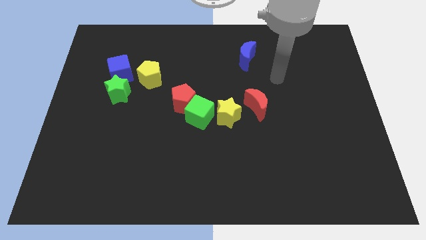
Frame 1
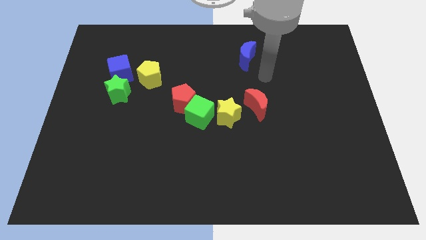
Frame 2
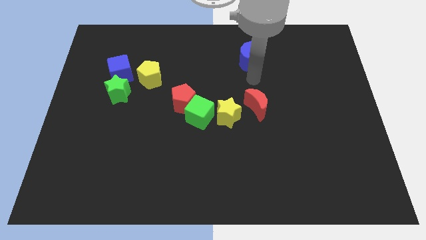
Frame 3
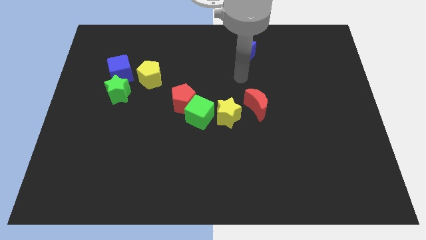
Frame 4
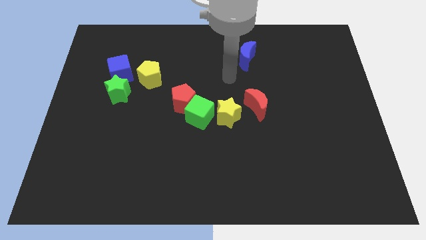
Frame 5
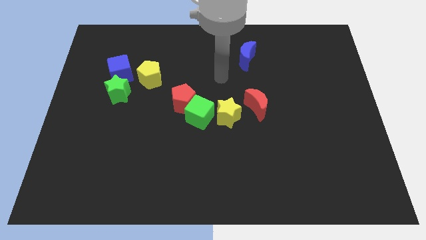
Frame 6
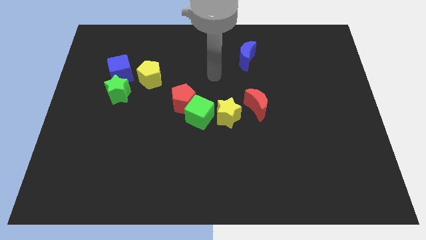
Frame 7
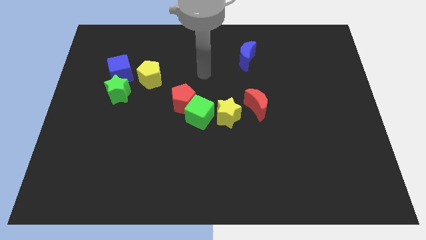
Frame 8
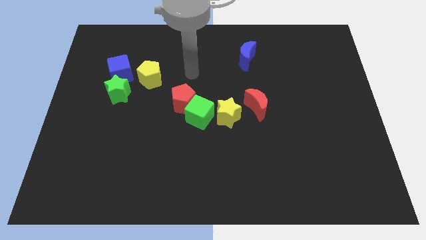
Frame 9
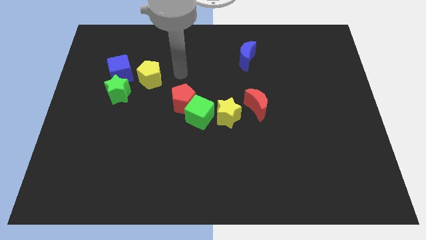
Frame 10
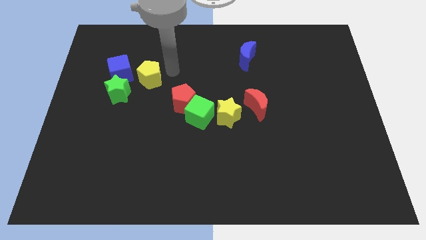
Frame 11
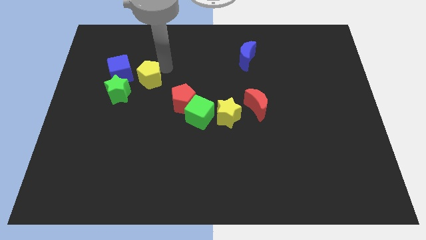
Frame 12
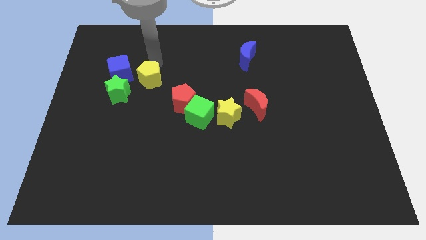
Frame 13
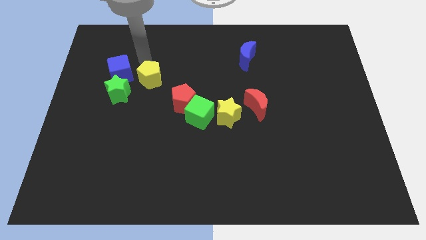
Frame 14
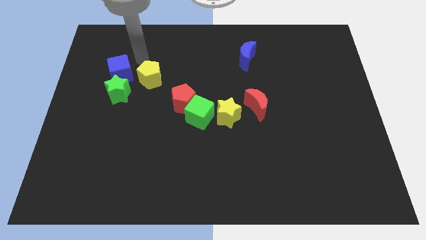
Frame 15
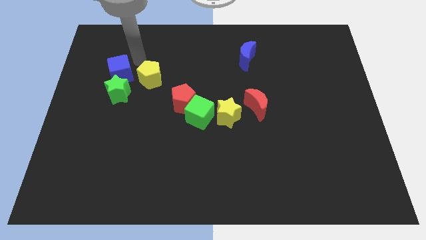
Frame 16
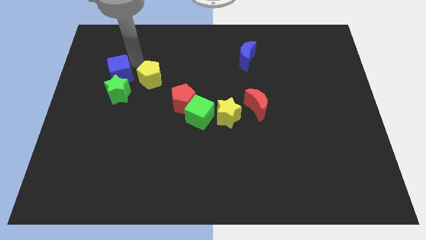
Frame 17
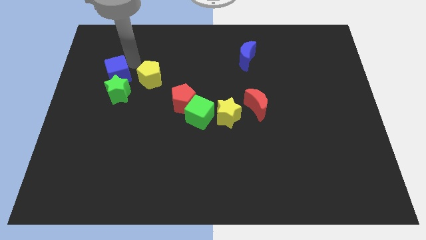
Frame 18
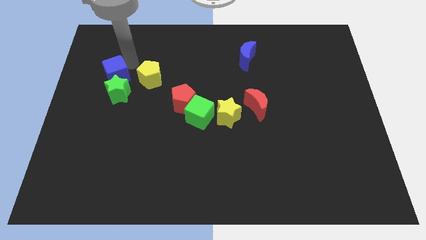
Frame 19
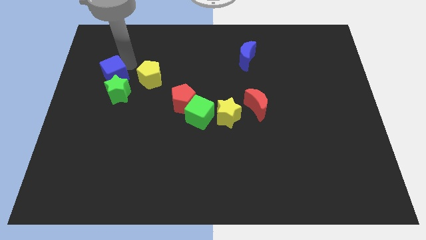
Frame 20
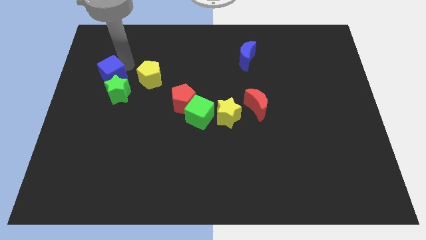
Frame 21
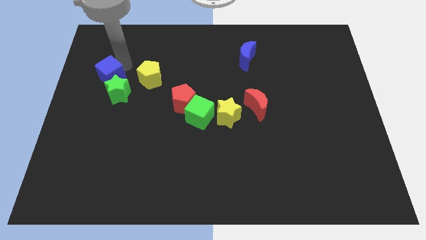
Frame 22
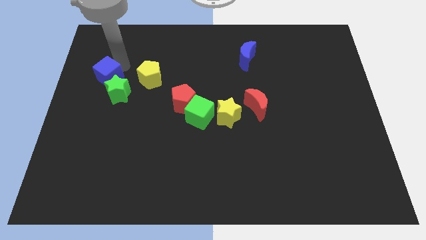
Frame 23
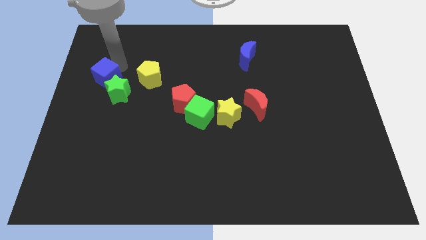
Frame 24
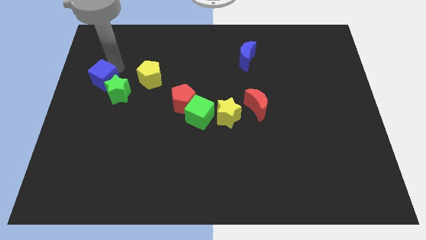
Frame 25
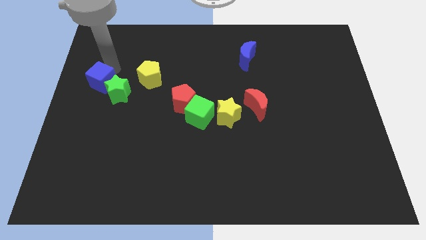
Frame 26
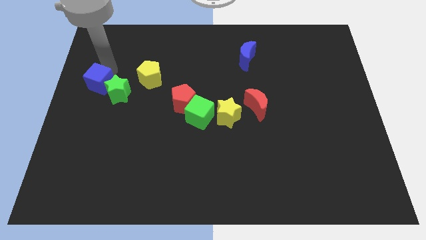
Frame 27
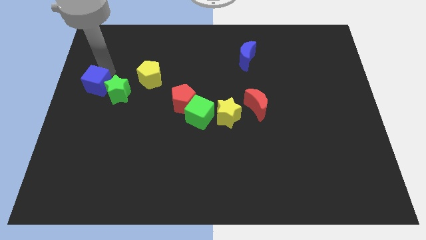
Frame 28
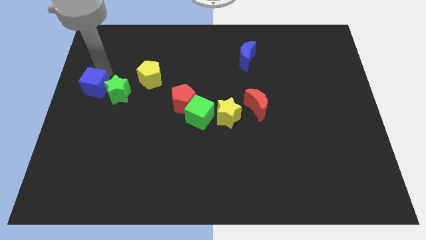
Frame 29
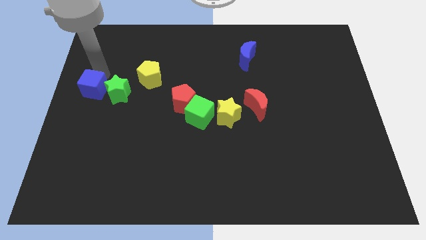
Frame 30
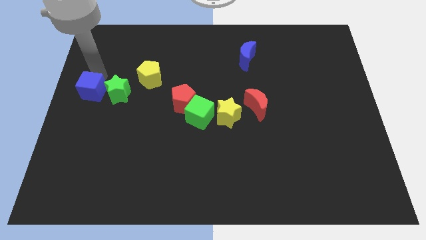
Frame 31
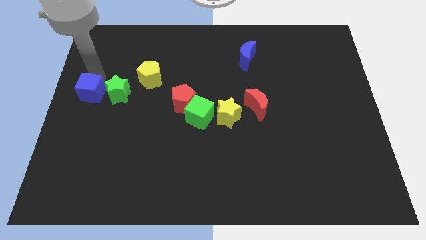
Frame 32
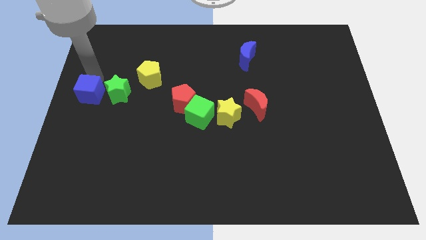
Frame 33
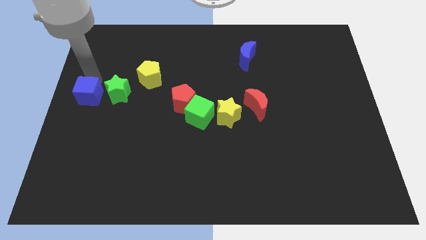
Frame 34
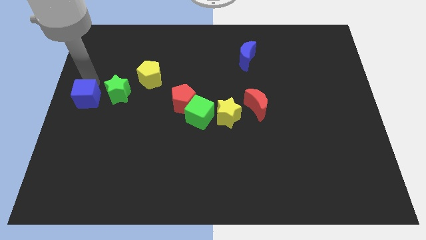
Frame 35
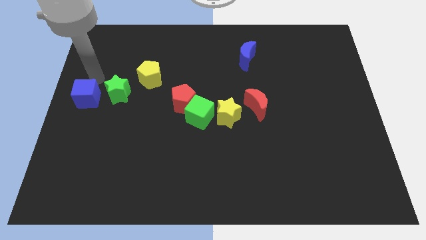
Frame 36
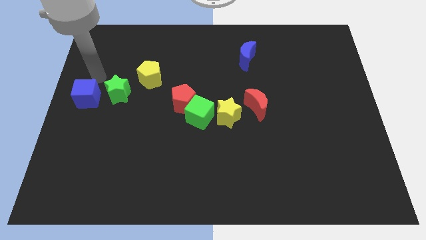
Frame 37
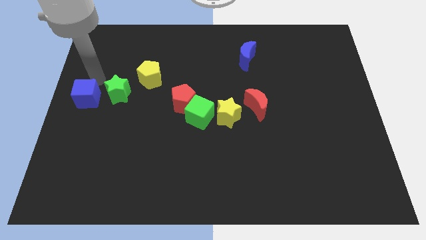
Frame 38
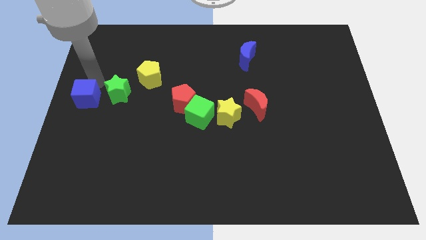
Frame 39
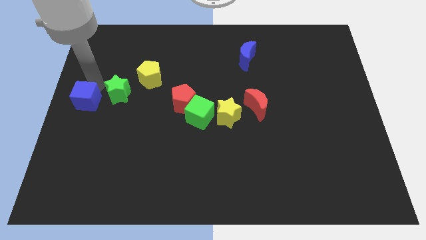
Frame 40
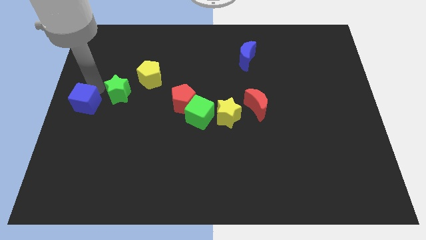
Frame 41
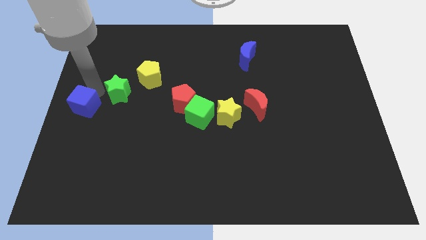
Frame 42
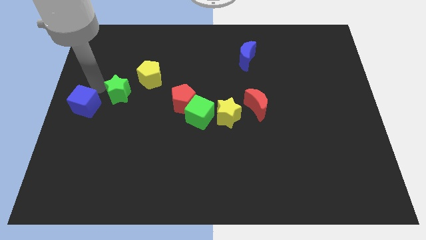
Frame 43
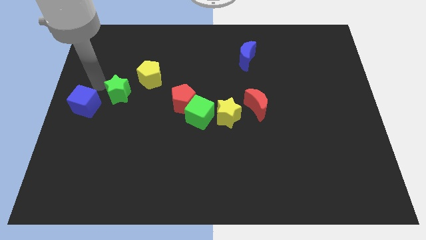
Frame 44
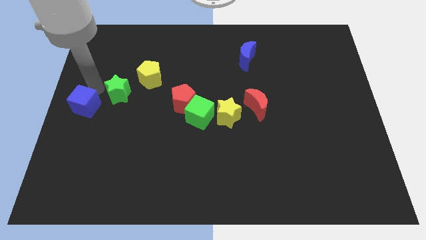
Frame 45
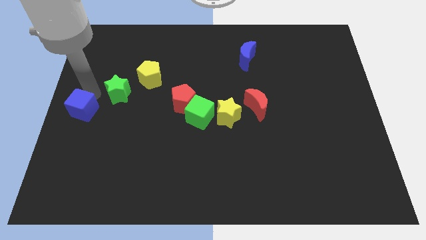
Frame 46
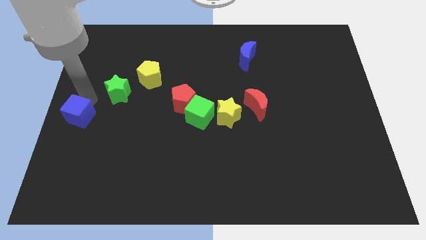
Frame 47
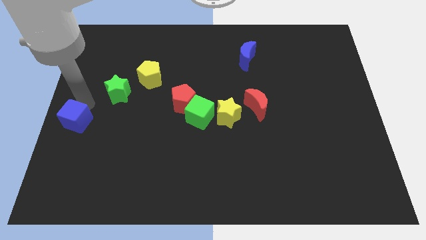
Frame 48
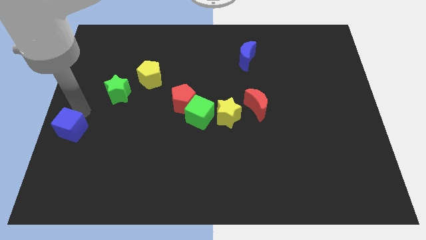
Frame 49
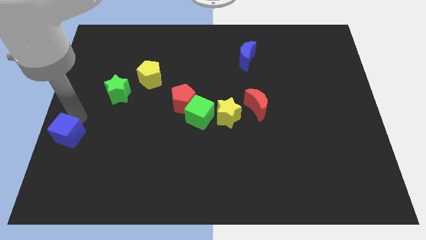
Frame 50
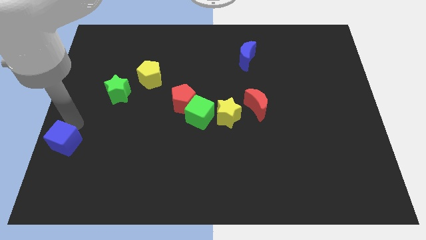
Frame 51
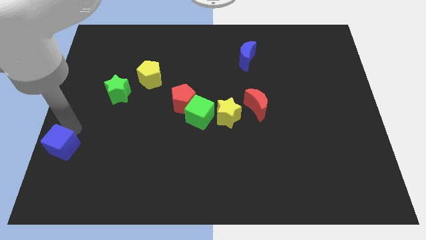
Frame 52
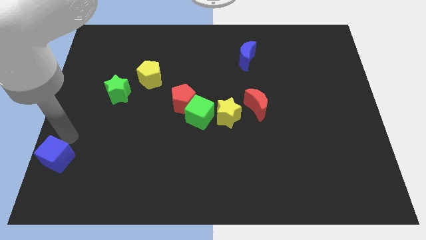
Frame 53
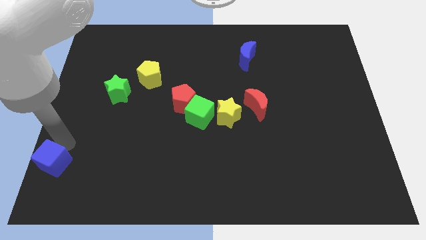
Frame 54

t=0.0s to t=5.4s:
slide the blue cube to the lower left corner
